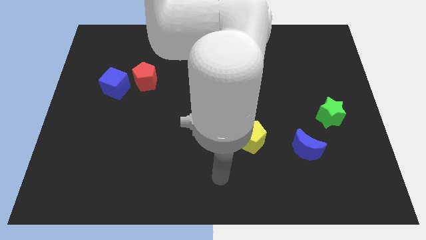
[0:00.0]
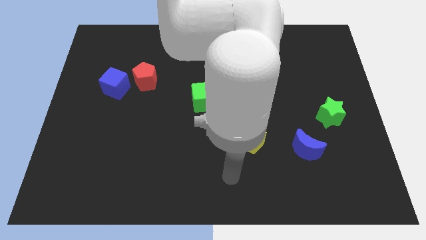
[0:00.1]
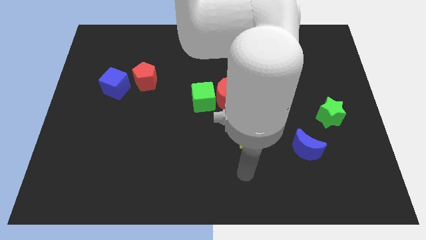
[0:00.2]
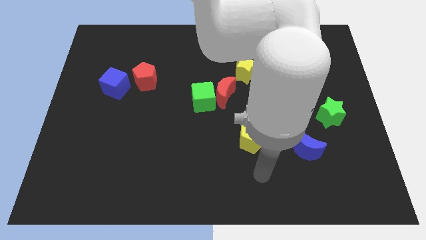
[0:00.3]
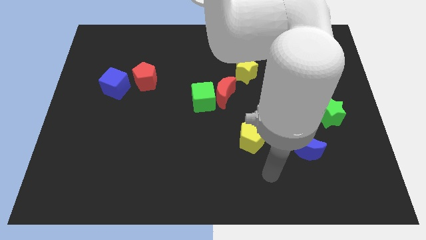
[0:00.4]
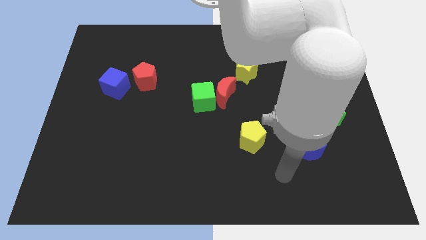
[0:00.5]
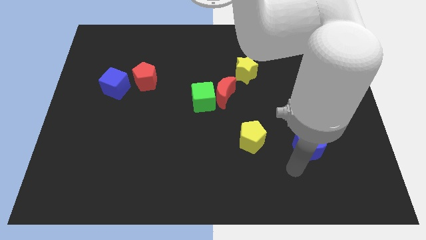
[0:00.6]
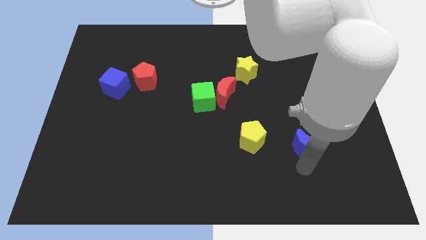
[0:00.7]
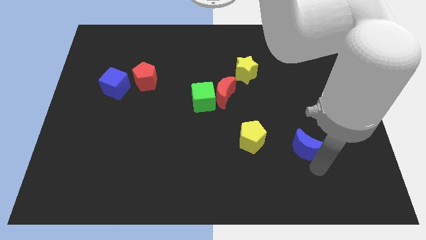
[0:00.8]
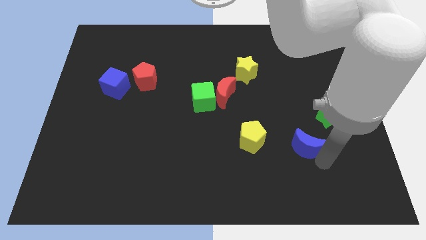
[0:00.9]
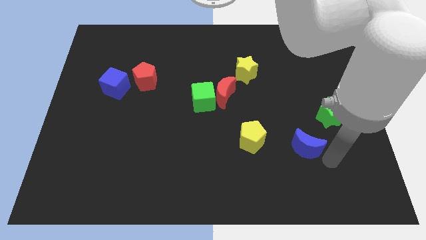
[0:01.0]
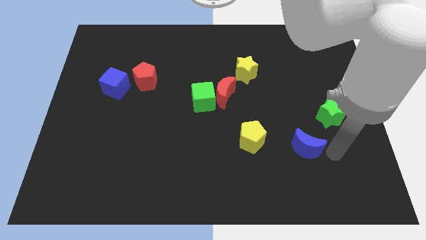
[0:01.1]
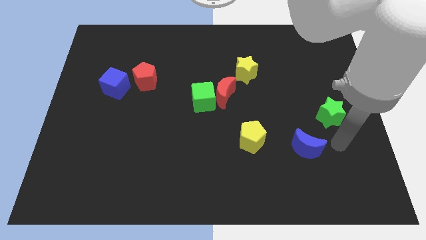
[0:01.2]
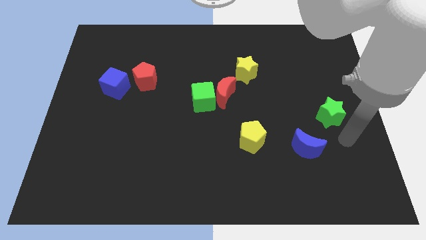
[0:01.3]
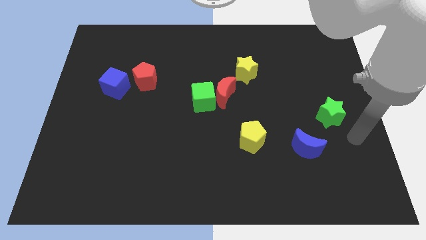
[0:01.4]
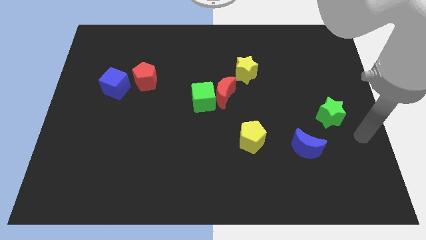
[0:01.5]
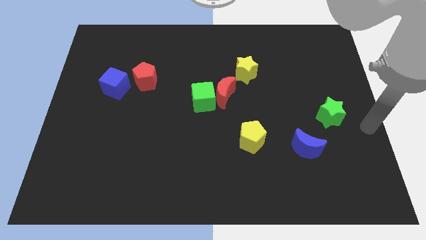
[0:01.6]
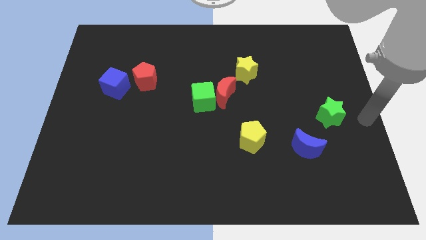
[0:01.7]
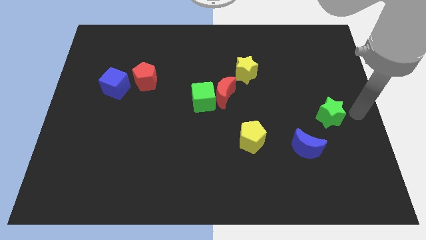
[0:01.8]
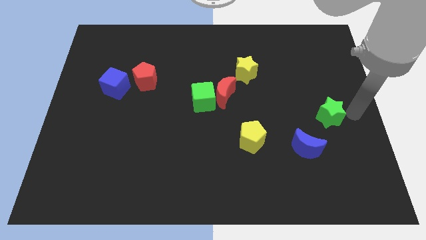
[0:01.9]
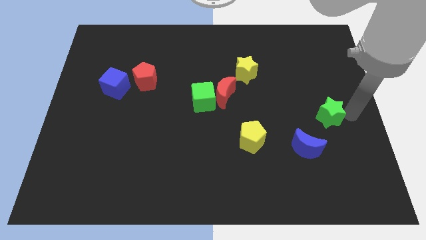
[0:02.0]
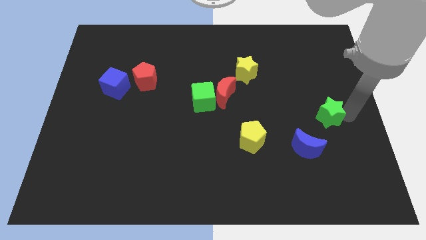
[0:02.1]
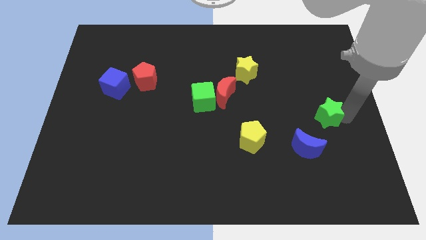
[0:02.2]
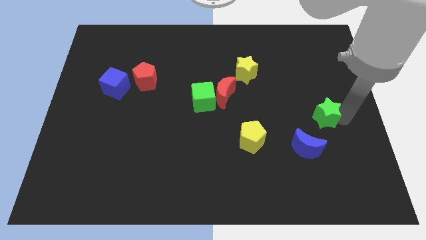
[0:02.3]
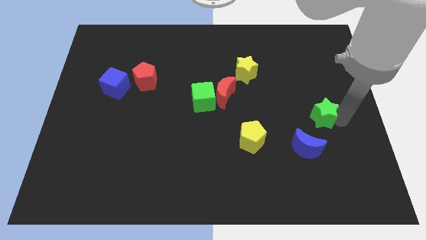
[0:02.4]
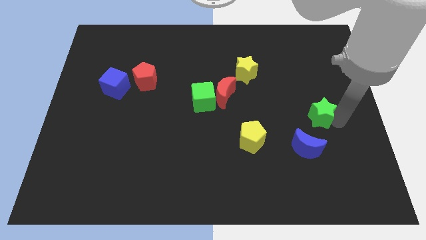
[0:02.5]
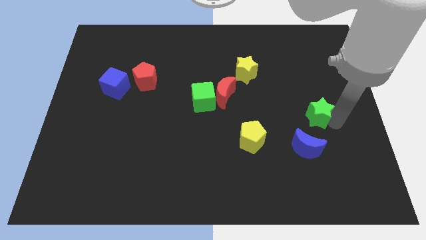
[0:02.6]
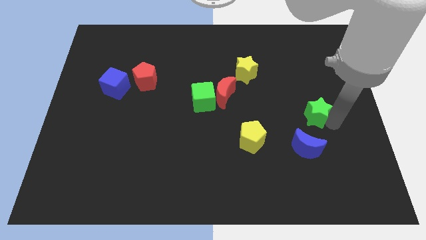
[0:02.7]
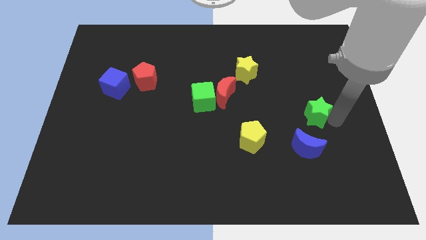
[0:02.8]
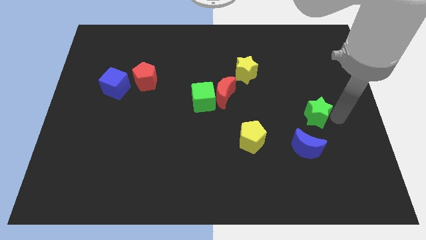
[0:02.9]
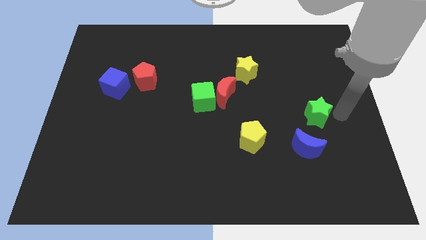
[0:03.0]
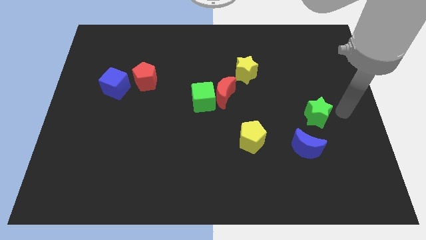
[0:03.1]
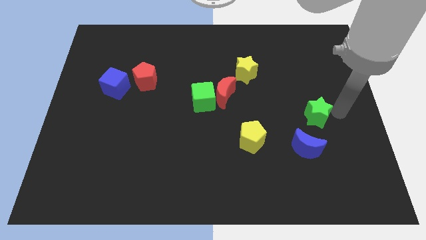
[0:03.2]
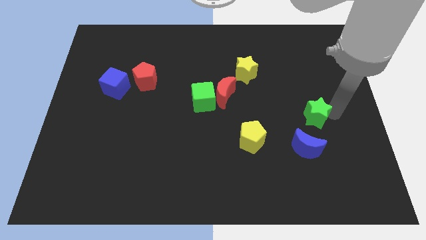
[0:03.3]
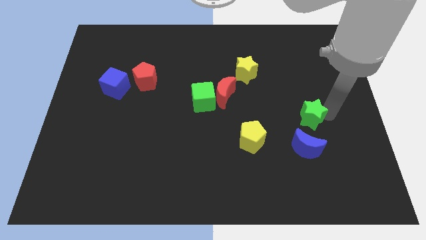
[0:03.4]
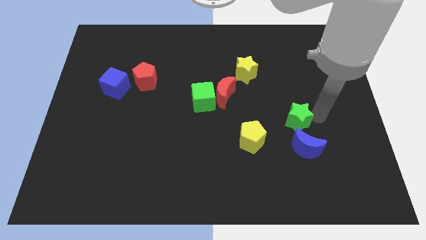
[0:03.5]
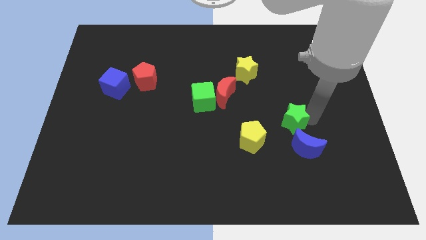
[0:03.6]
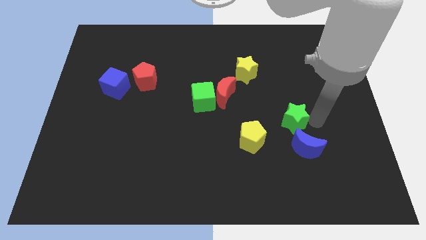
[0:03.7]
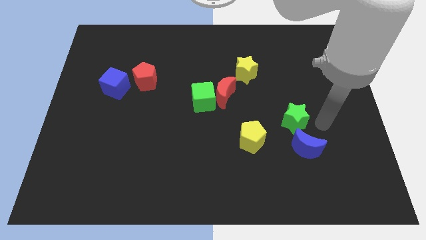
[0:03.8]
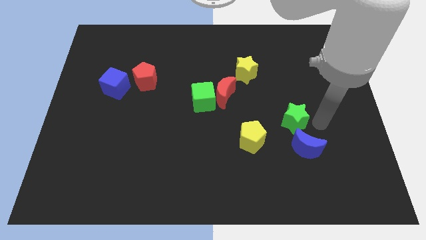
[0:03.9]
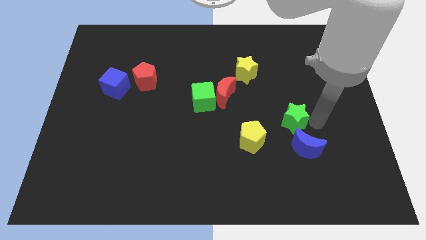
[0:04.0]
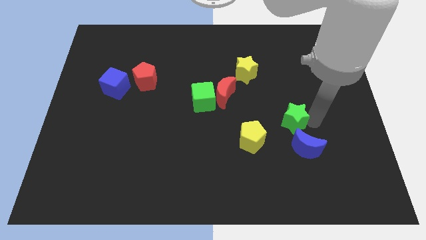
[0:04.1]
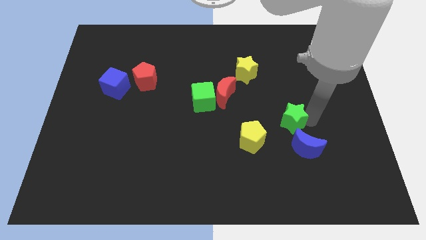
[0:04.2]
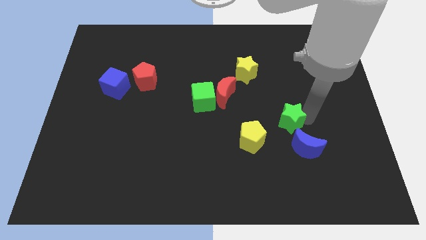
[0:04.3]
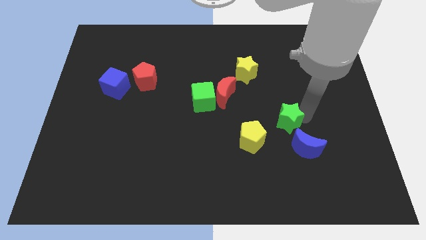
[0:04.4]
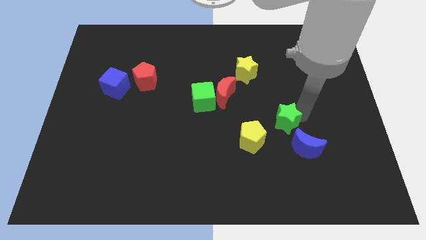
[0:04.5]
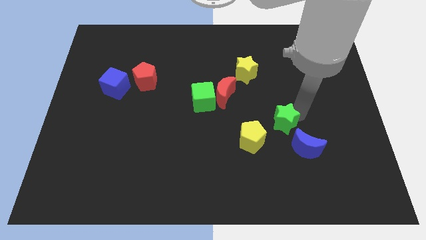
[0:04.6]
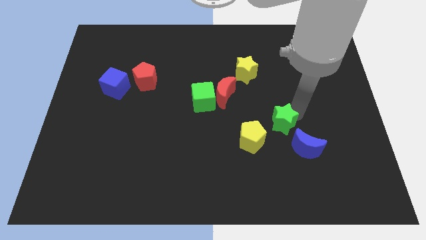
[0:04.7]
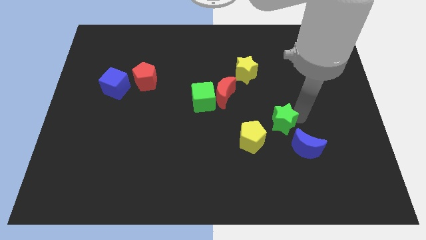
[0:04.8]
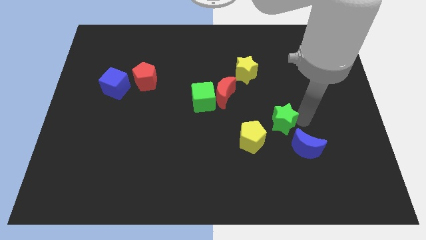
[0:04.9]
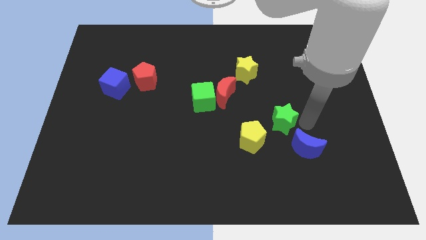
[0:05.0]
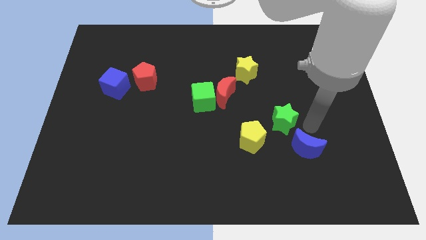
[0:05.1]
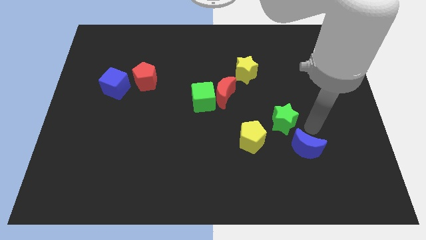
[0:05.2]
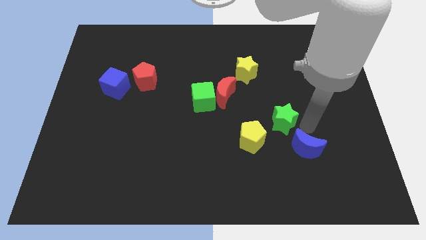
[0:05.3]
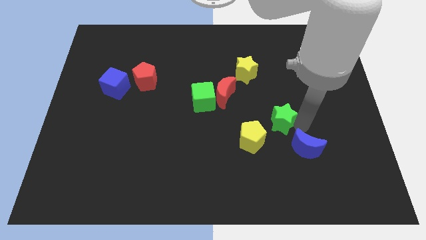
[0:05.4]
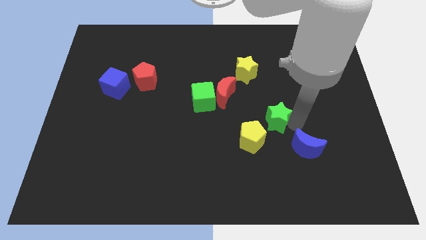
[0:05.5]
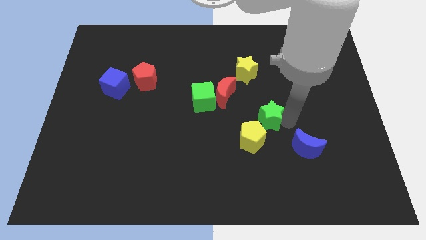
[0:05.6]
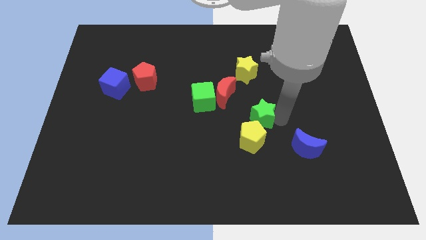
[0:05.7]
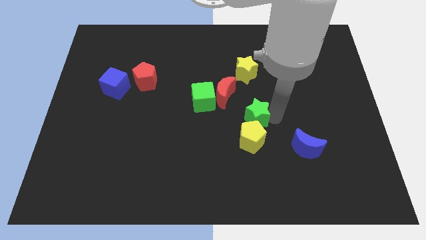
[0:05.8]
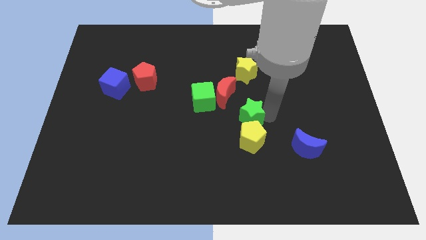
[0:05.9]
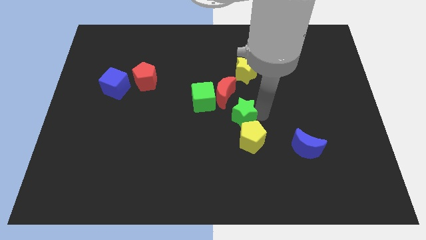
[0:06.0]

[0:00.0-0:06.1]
push the green star below the red moon

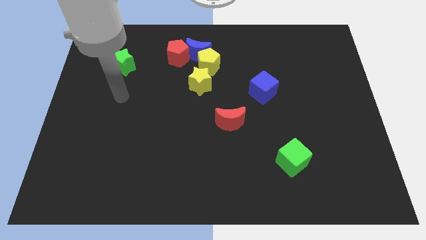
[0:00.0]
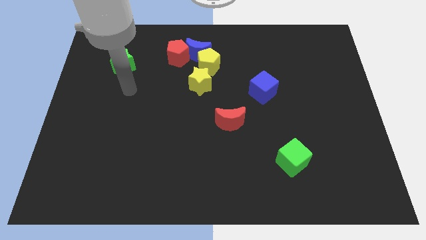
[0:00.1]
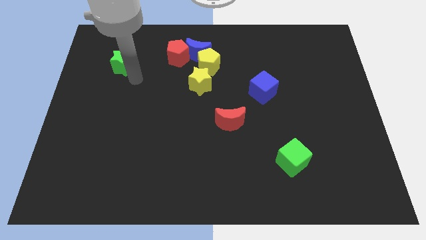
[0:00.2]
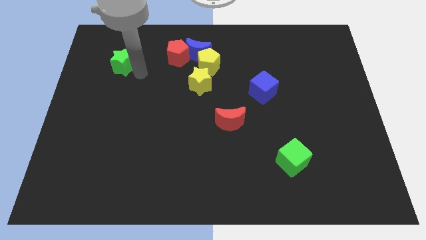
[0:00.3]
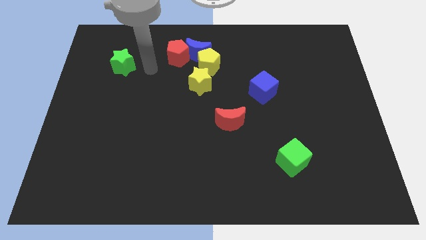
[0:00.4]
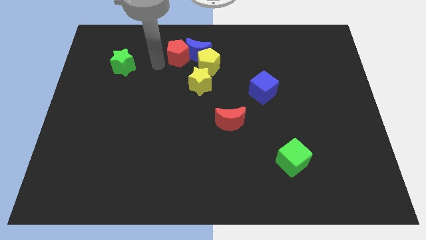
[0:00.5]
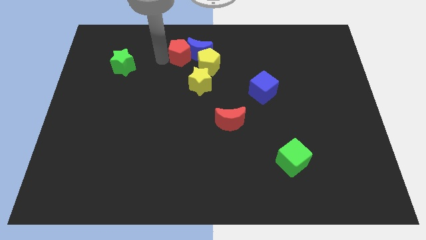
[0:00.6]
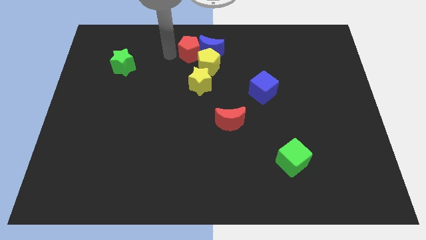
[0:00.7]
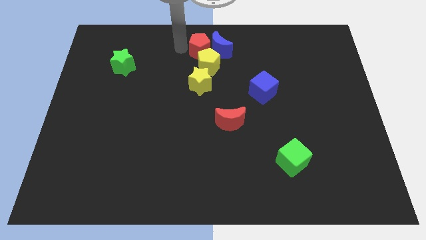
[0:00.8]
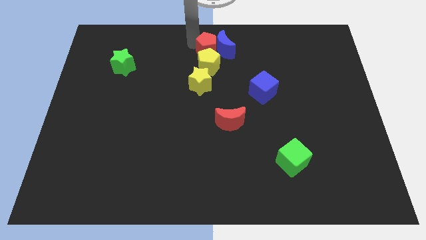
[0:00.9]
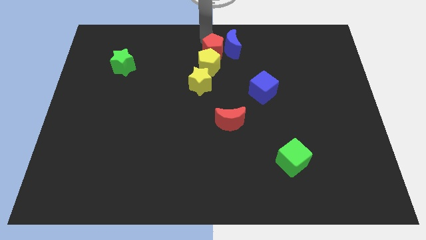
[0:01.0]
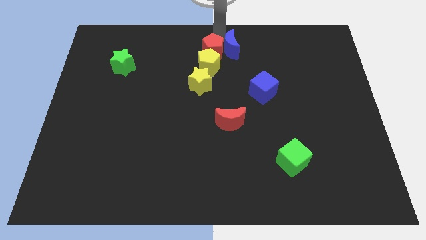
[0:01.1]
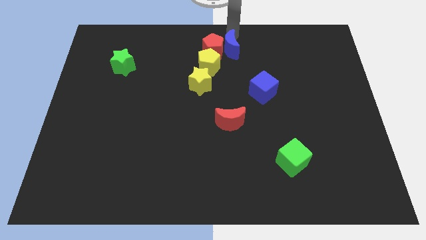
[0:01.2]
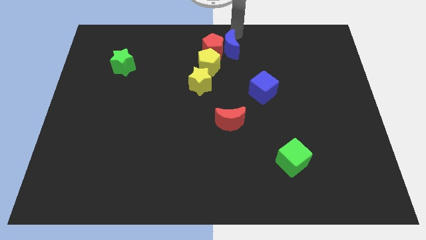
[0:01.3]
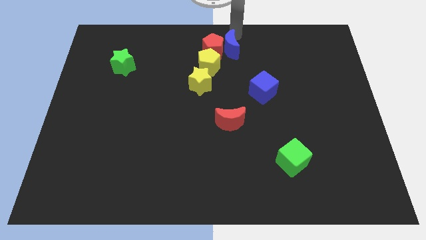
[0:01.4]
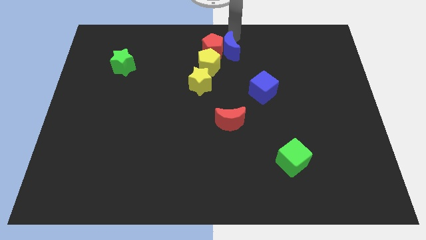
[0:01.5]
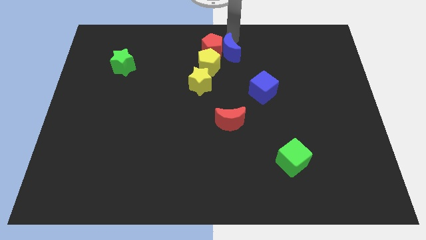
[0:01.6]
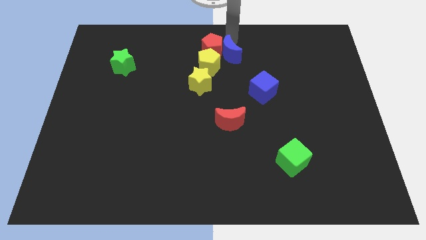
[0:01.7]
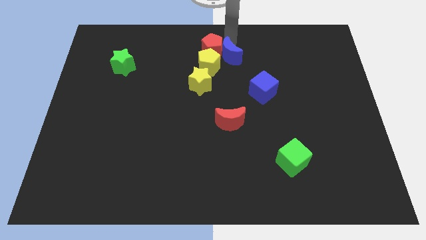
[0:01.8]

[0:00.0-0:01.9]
put the blue moon to the top right of the yellow star
